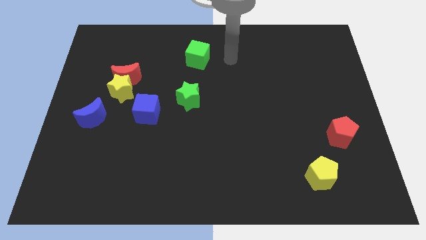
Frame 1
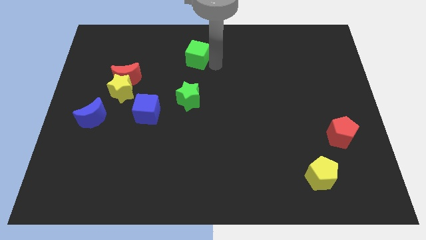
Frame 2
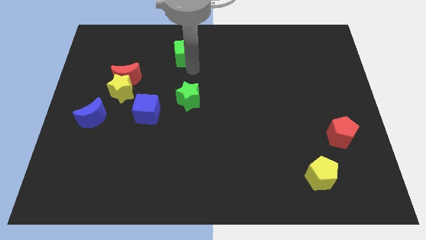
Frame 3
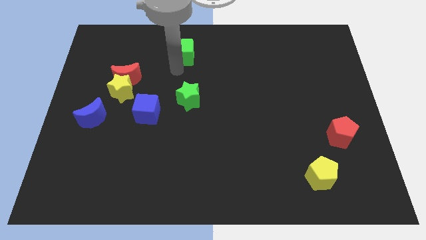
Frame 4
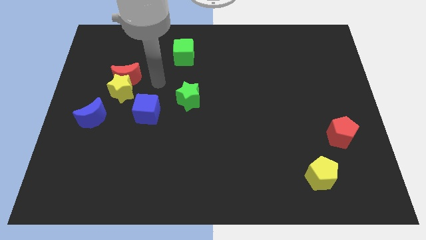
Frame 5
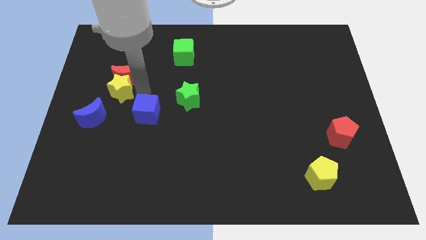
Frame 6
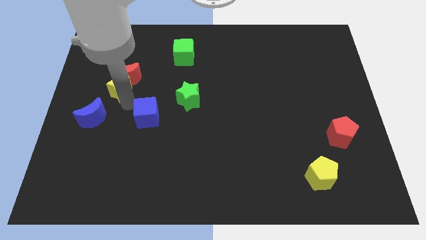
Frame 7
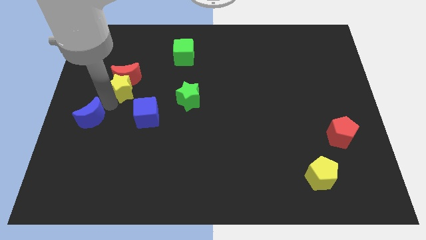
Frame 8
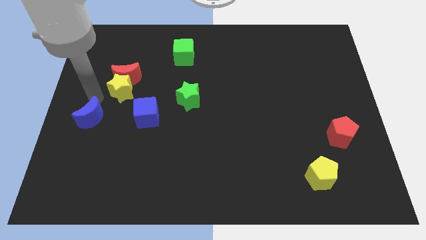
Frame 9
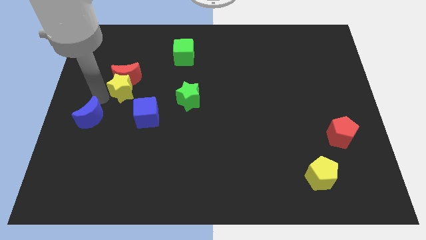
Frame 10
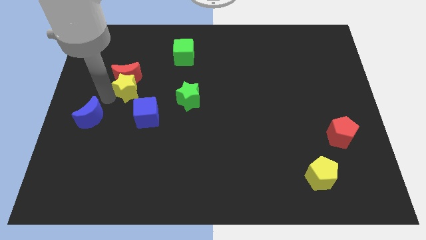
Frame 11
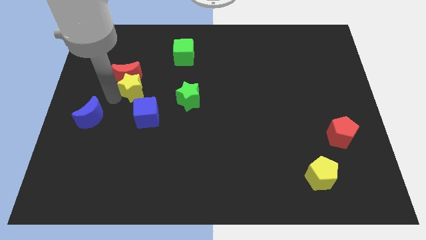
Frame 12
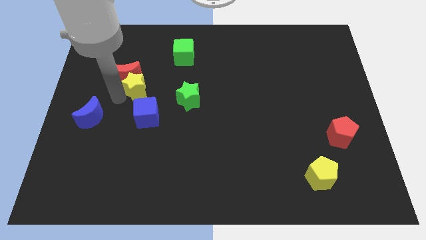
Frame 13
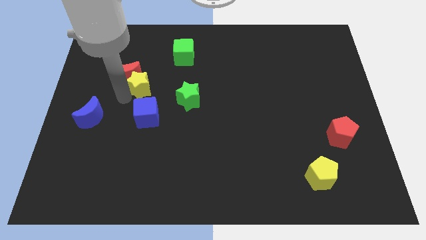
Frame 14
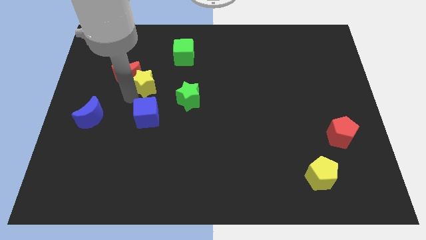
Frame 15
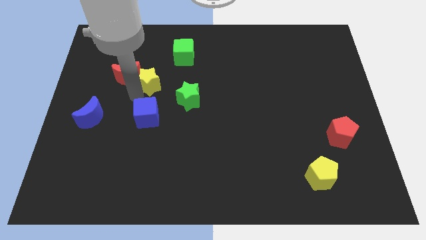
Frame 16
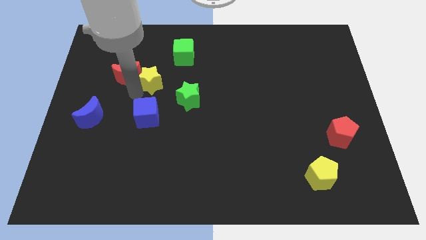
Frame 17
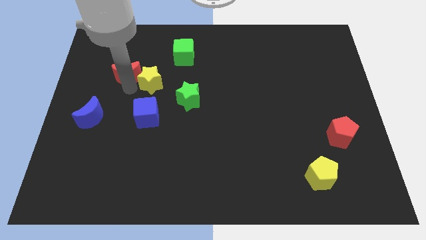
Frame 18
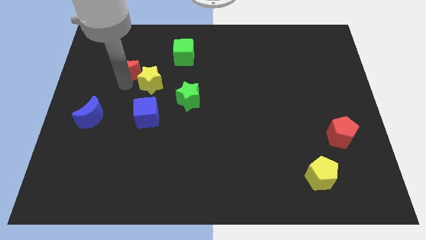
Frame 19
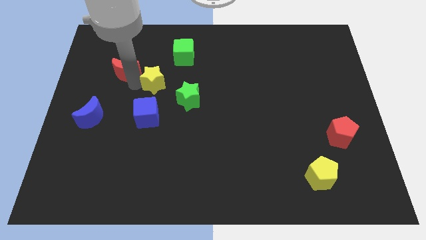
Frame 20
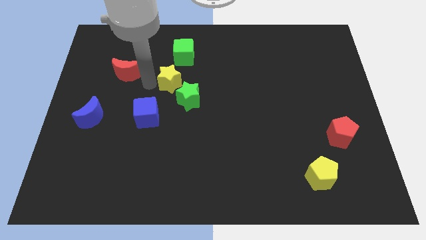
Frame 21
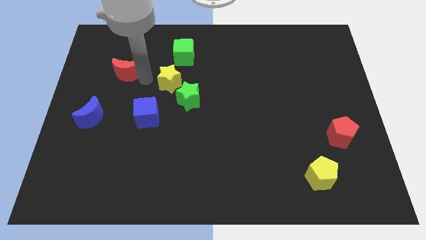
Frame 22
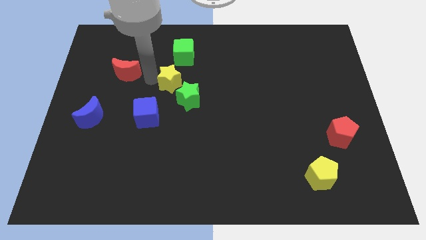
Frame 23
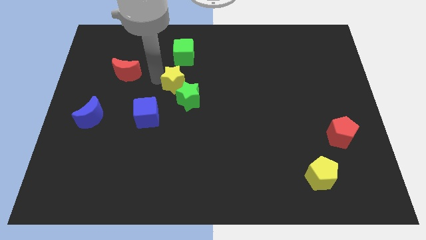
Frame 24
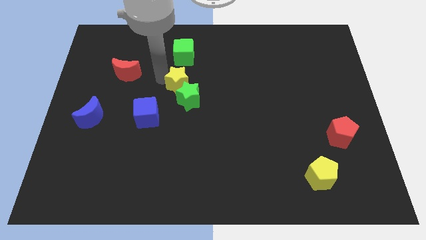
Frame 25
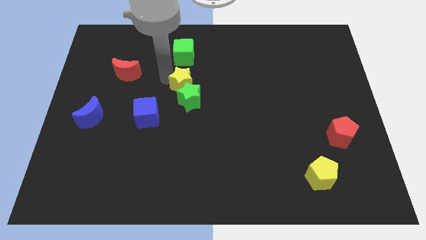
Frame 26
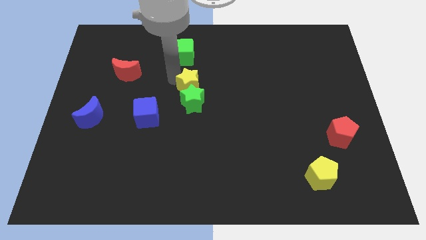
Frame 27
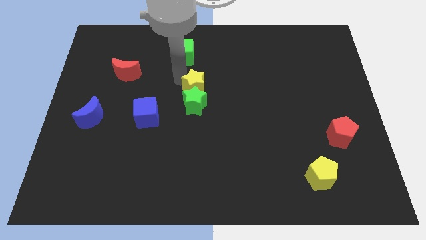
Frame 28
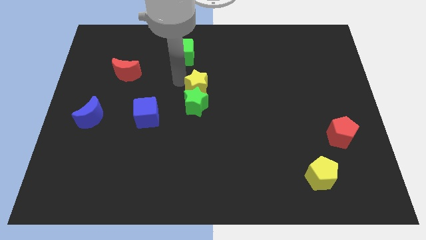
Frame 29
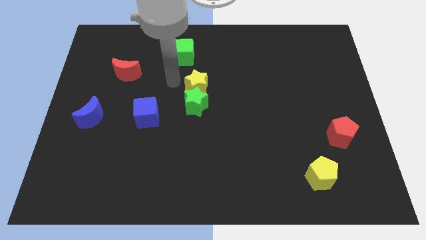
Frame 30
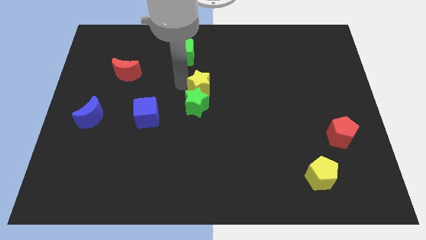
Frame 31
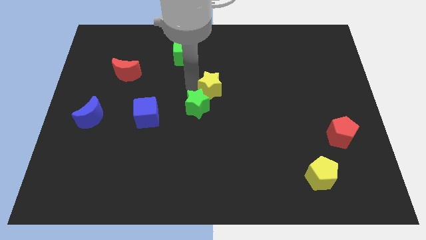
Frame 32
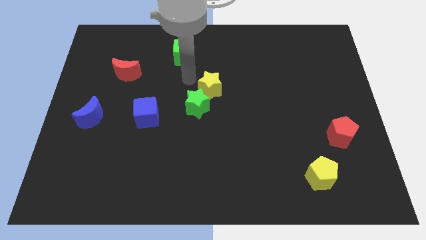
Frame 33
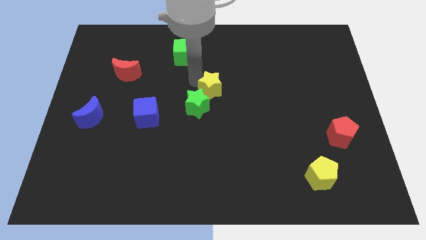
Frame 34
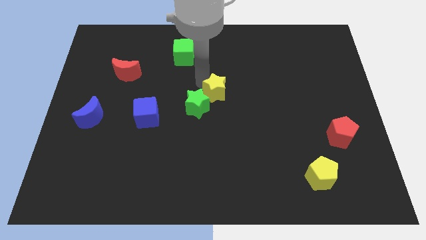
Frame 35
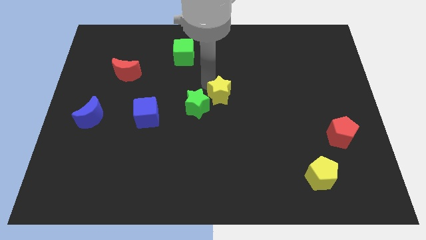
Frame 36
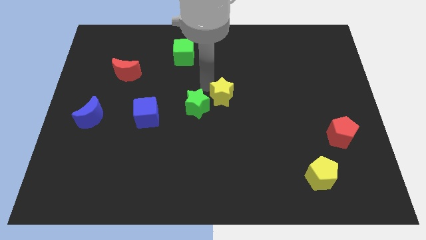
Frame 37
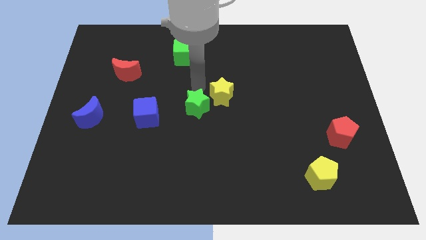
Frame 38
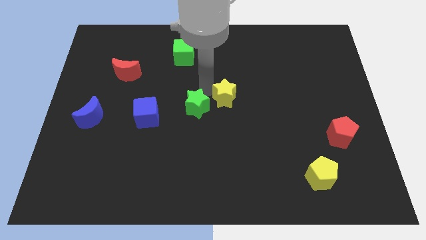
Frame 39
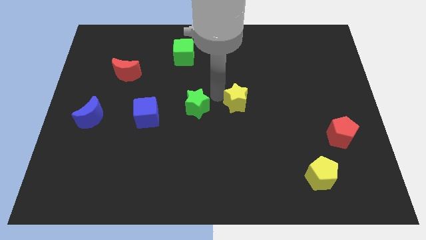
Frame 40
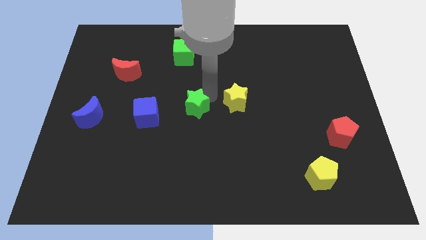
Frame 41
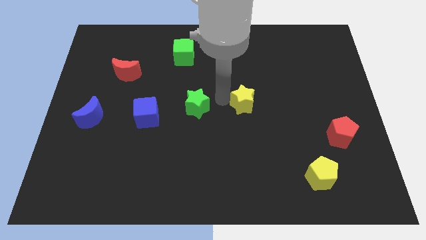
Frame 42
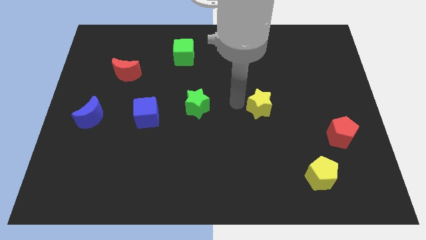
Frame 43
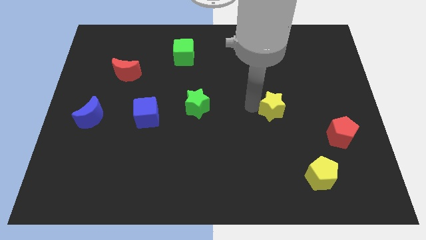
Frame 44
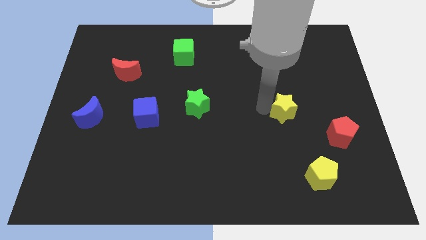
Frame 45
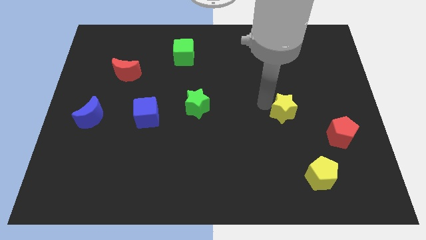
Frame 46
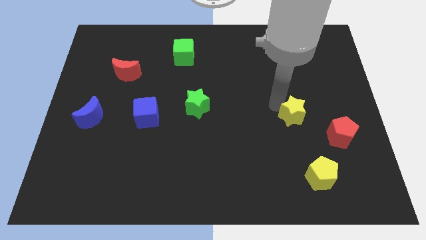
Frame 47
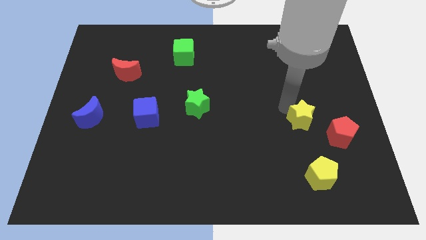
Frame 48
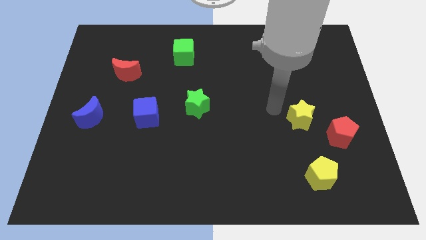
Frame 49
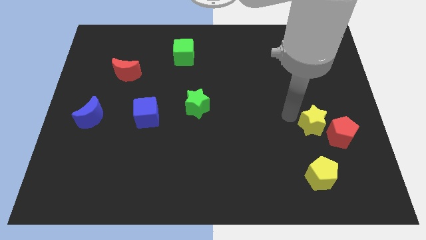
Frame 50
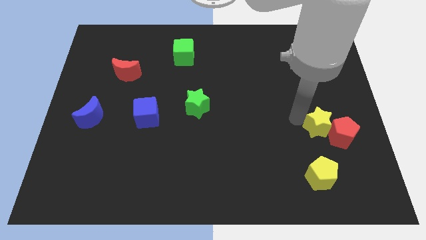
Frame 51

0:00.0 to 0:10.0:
put the yellow star close to the red pentagon

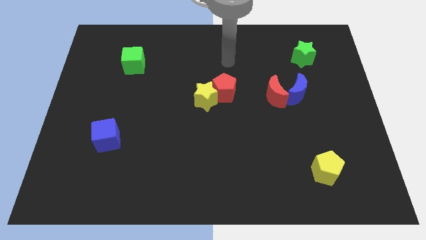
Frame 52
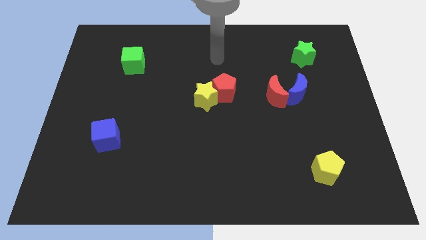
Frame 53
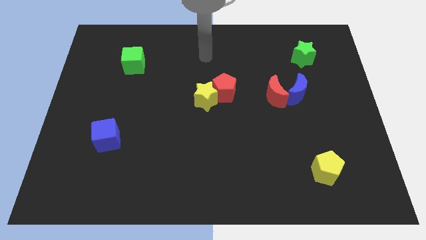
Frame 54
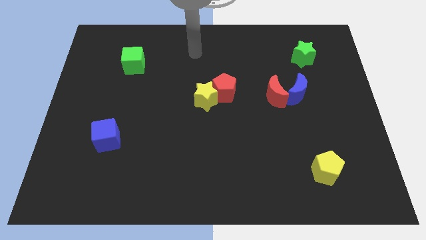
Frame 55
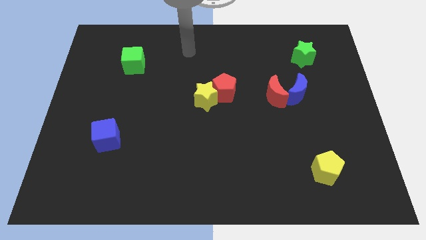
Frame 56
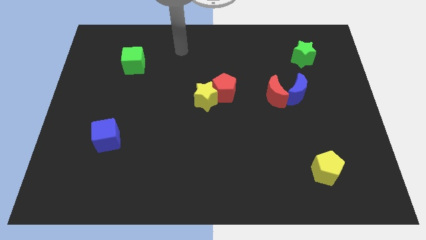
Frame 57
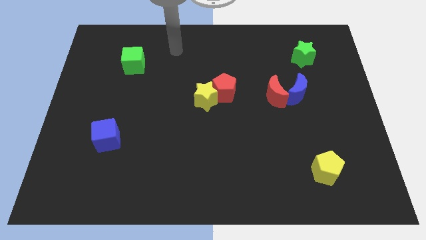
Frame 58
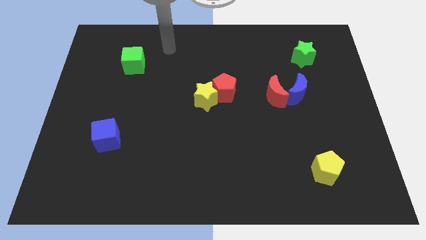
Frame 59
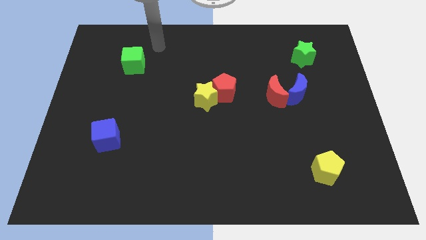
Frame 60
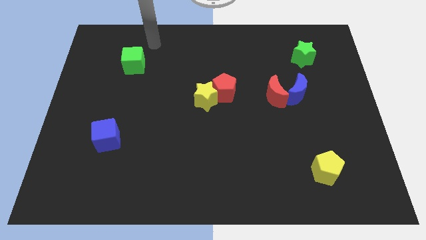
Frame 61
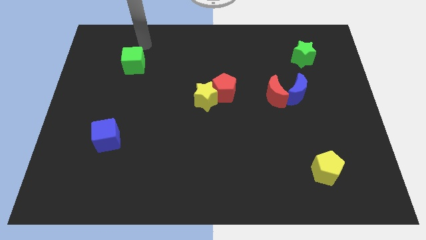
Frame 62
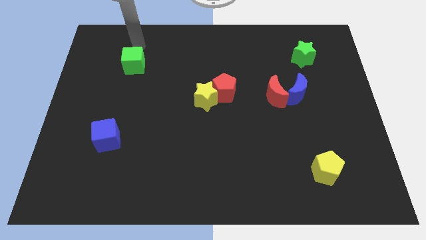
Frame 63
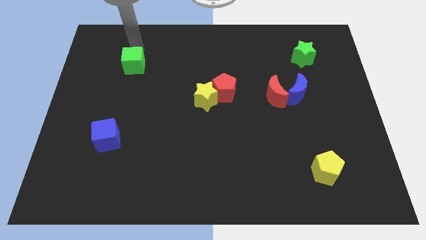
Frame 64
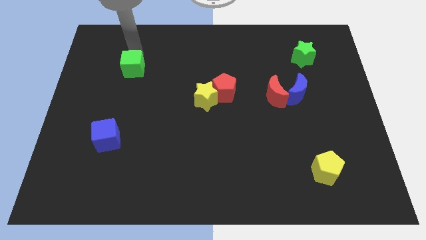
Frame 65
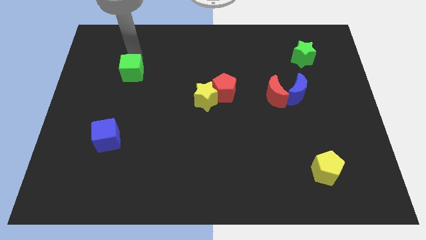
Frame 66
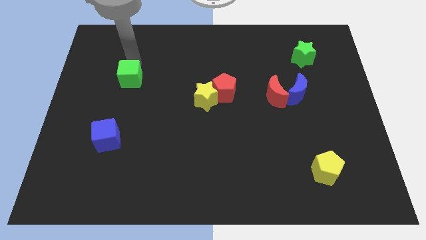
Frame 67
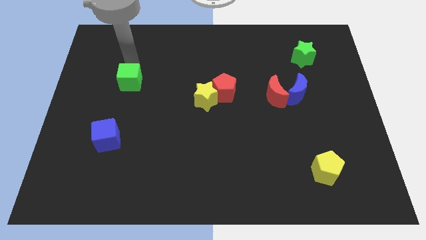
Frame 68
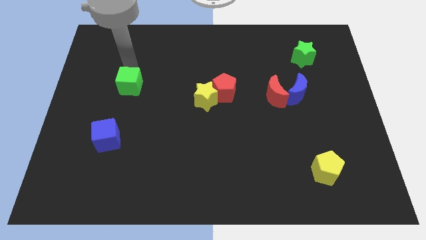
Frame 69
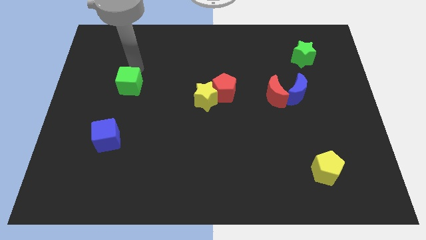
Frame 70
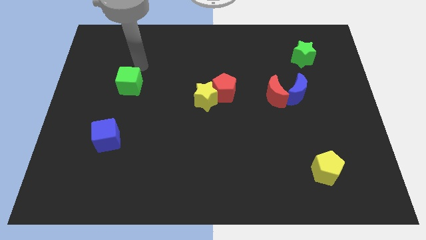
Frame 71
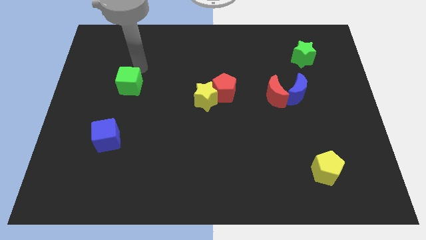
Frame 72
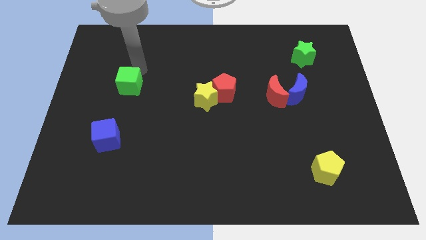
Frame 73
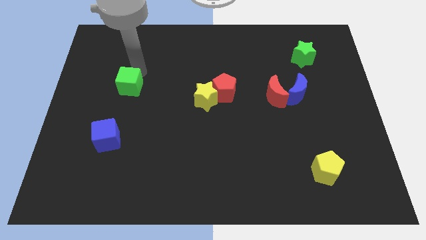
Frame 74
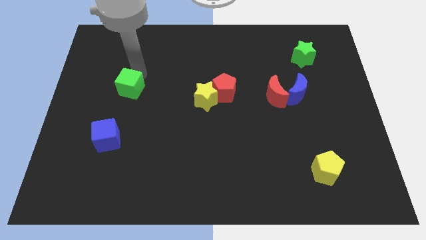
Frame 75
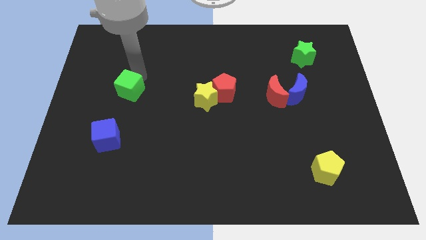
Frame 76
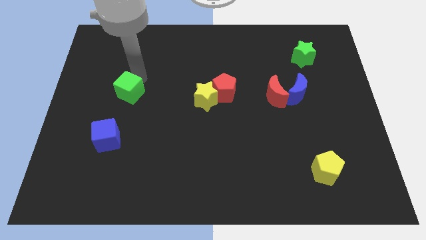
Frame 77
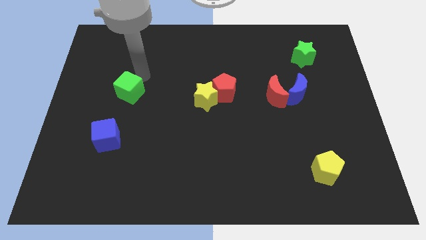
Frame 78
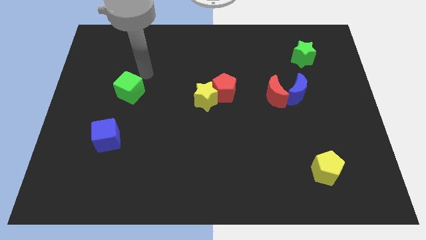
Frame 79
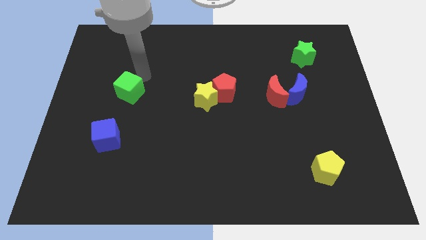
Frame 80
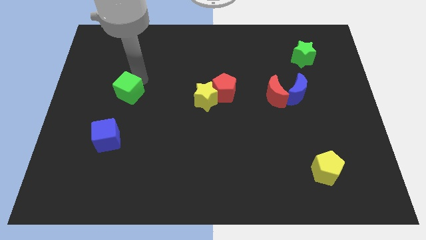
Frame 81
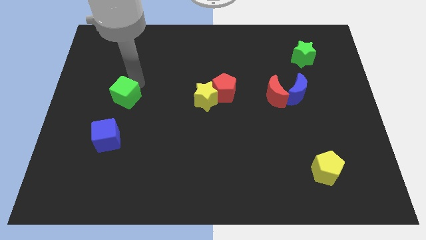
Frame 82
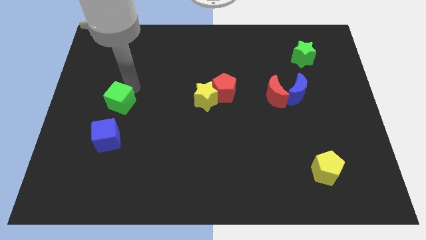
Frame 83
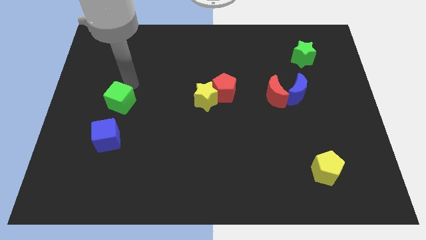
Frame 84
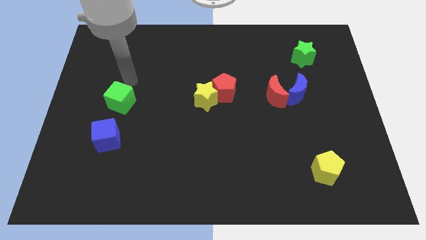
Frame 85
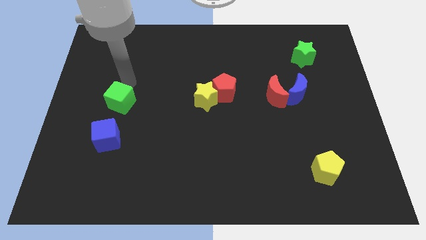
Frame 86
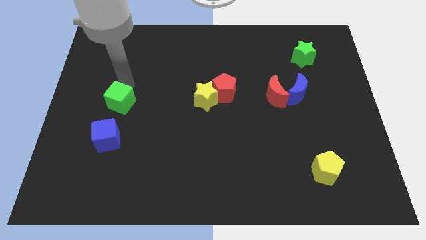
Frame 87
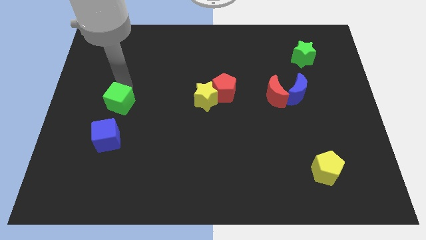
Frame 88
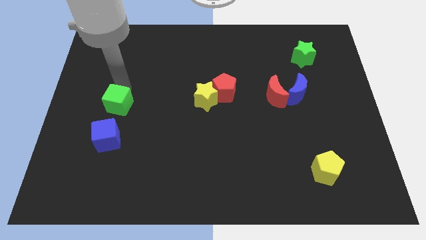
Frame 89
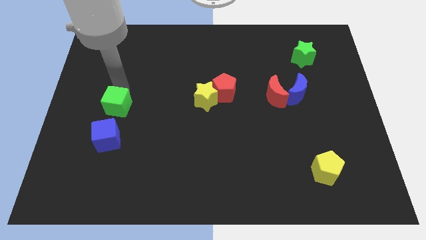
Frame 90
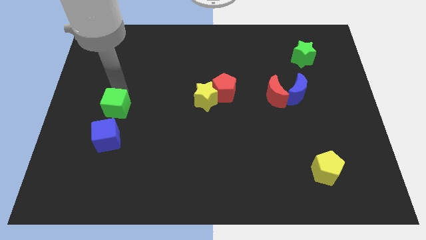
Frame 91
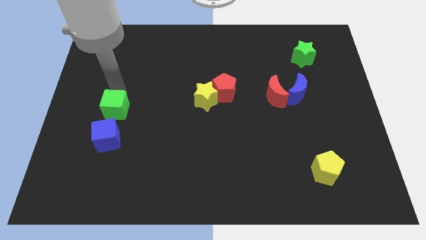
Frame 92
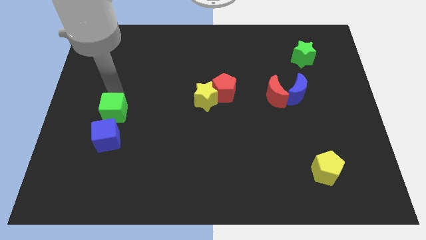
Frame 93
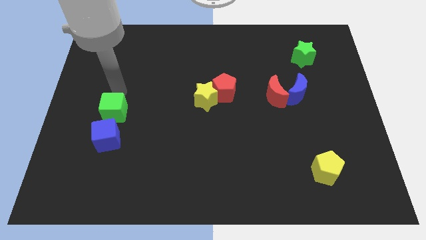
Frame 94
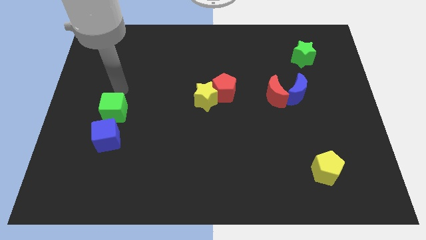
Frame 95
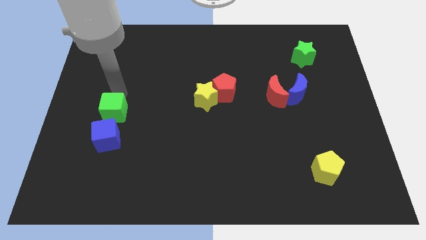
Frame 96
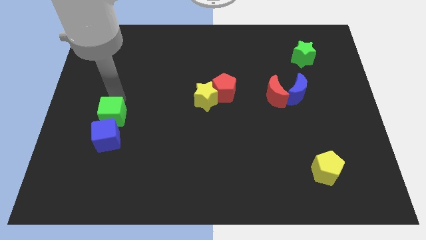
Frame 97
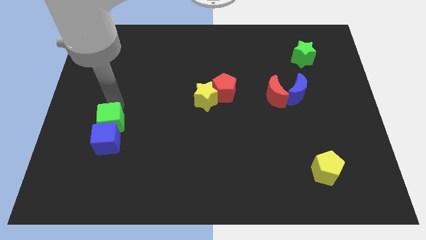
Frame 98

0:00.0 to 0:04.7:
move the green cube close to the blue cube
